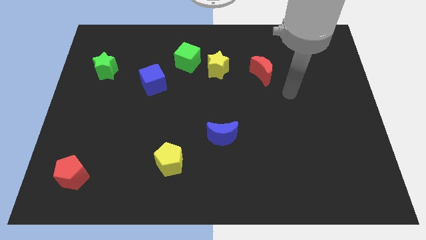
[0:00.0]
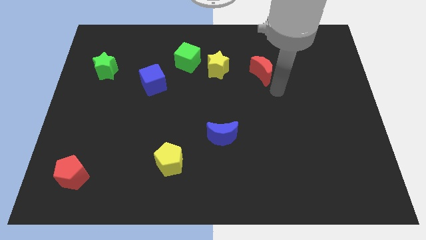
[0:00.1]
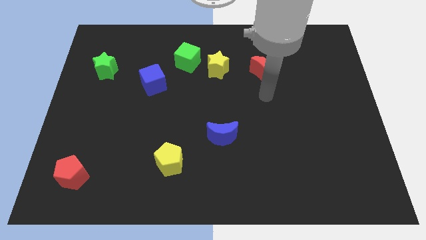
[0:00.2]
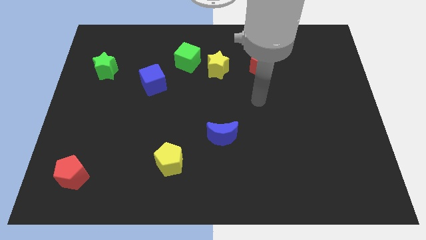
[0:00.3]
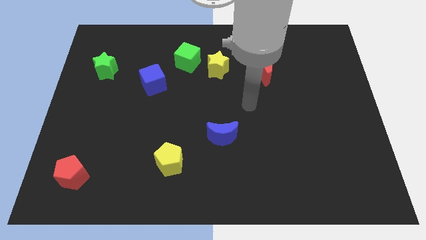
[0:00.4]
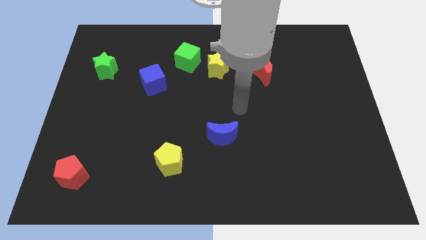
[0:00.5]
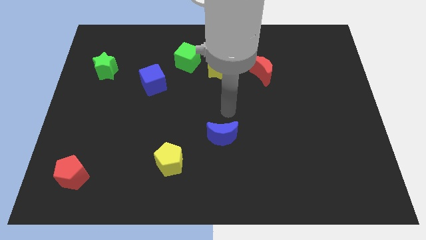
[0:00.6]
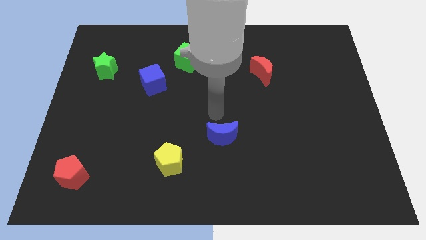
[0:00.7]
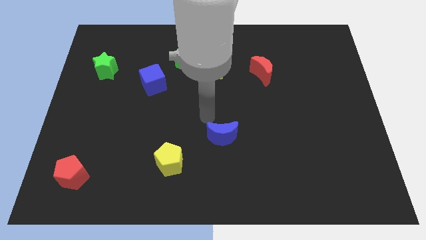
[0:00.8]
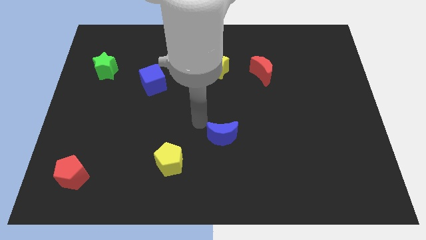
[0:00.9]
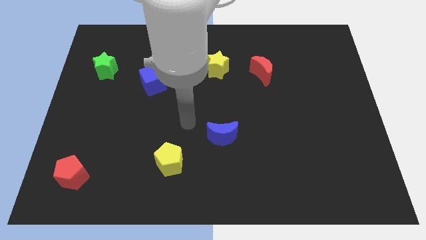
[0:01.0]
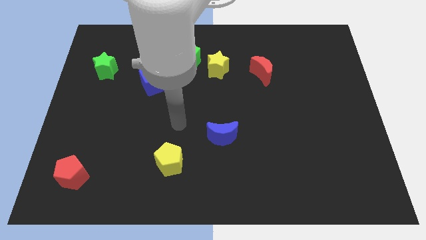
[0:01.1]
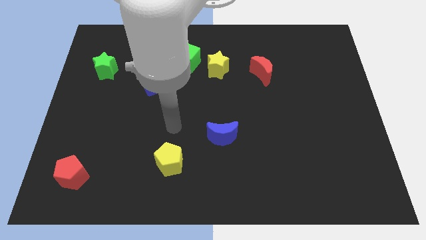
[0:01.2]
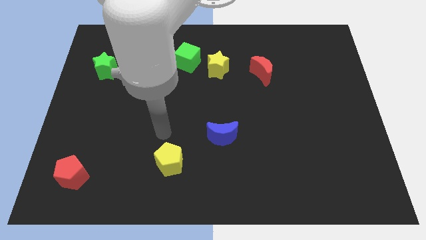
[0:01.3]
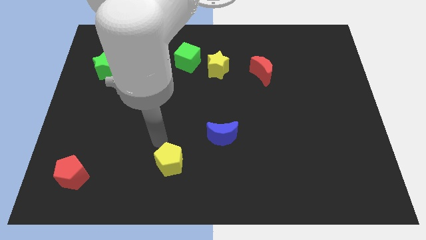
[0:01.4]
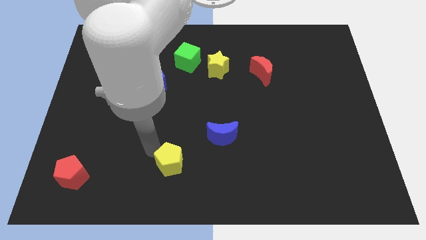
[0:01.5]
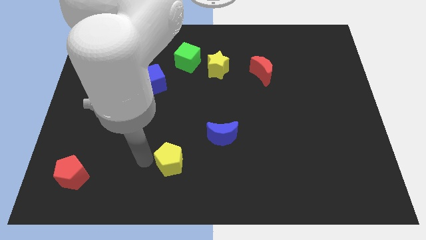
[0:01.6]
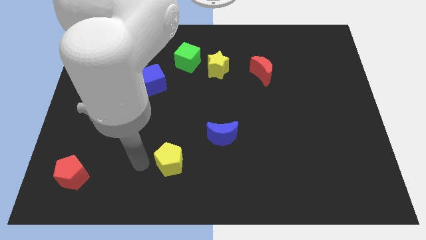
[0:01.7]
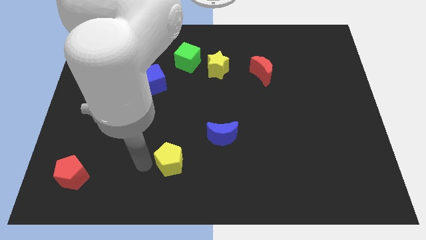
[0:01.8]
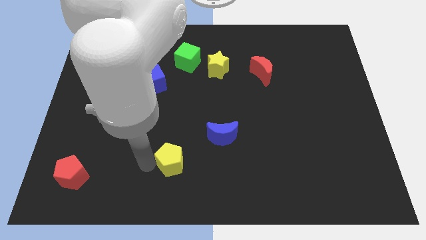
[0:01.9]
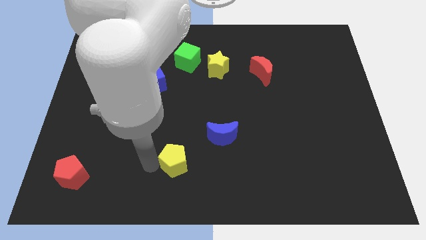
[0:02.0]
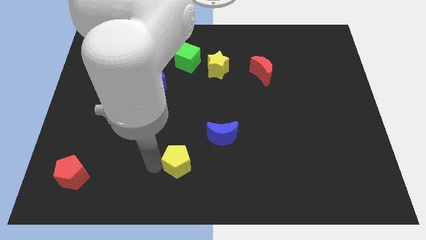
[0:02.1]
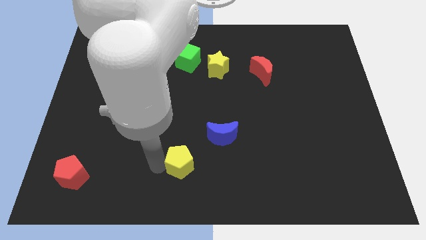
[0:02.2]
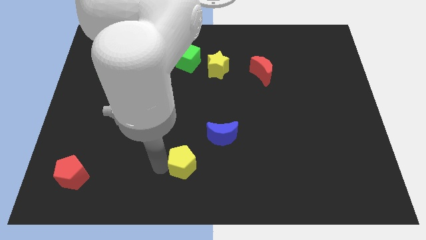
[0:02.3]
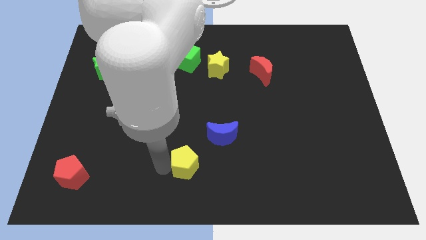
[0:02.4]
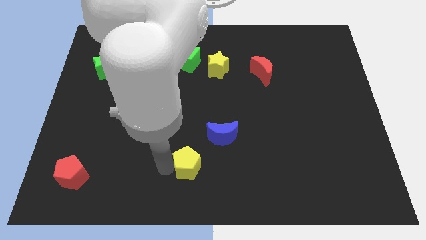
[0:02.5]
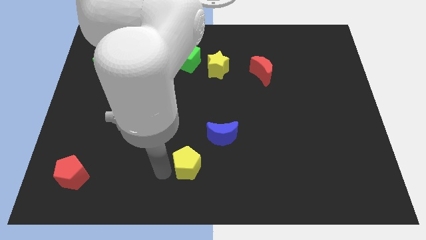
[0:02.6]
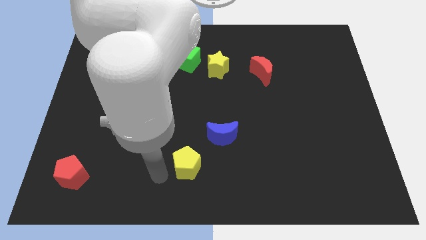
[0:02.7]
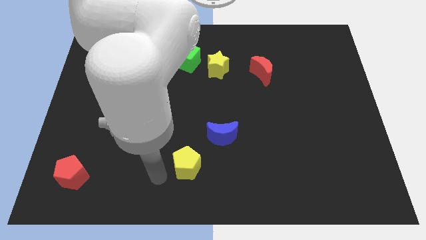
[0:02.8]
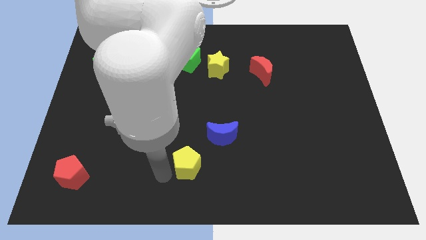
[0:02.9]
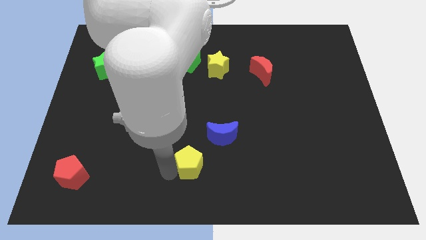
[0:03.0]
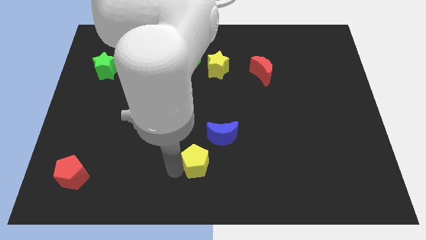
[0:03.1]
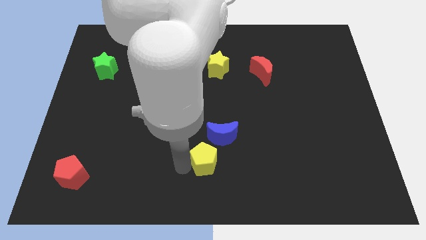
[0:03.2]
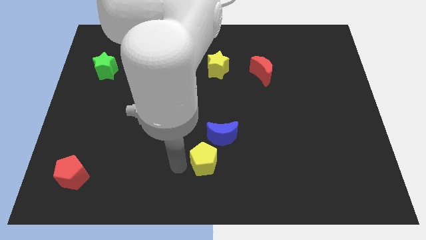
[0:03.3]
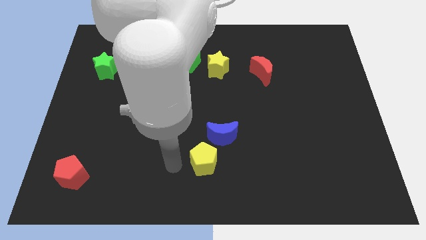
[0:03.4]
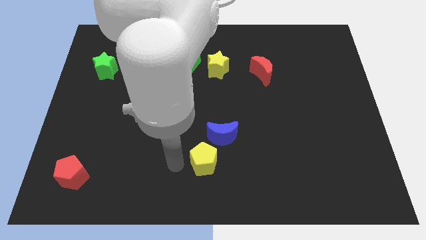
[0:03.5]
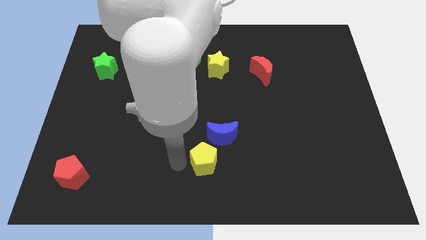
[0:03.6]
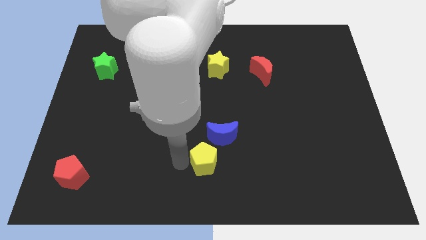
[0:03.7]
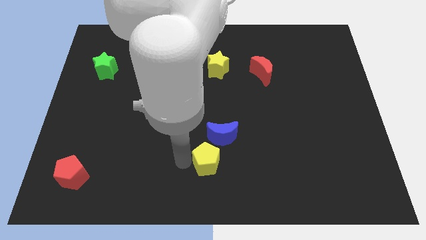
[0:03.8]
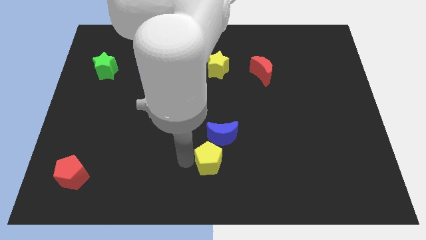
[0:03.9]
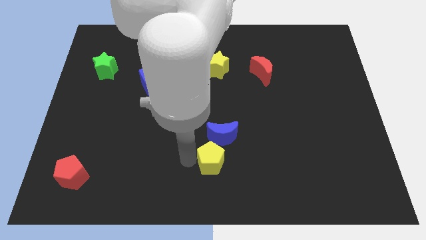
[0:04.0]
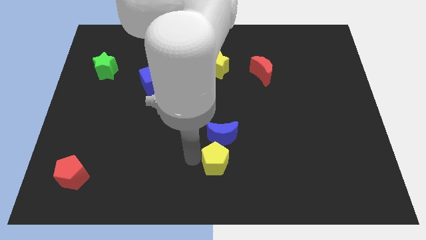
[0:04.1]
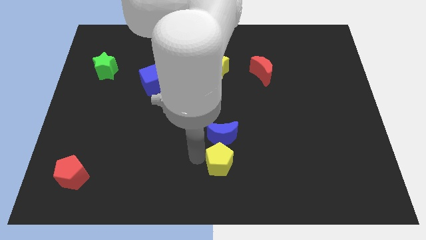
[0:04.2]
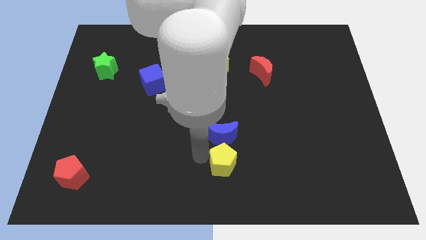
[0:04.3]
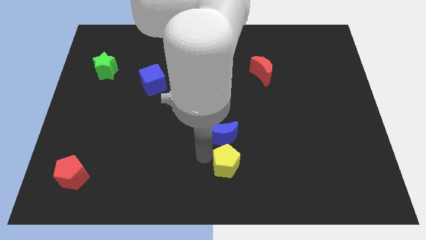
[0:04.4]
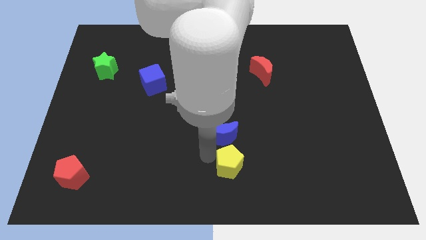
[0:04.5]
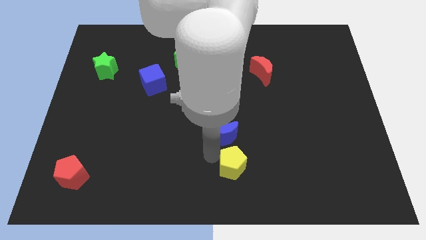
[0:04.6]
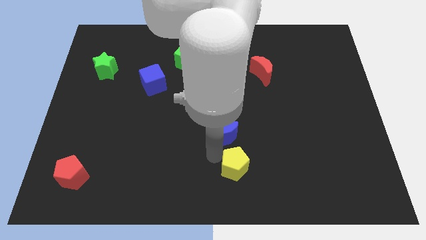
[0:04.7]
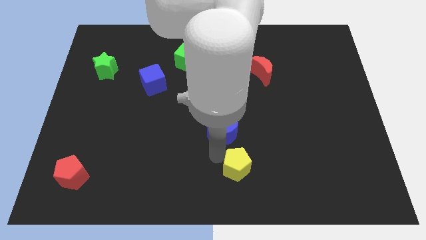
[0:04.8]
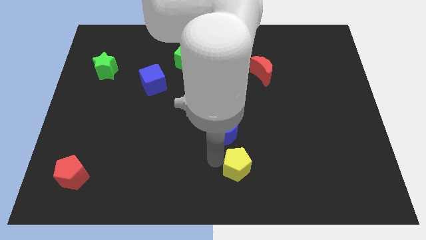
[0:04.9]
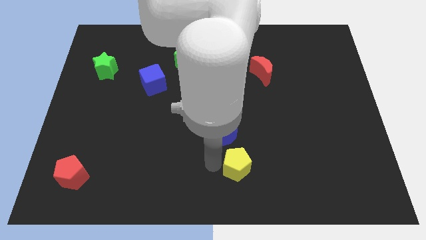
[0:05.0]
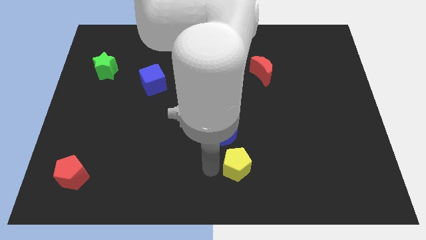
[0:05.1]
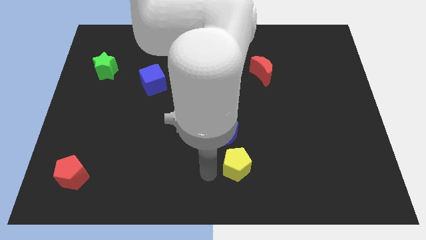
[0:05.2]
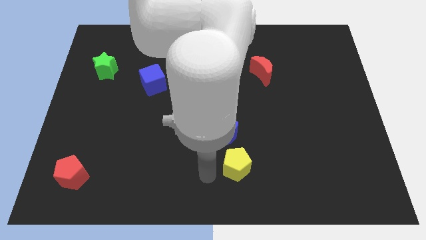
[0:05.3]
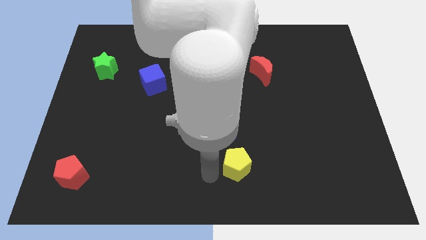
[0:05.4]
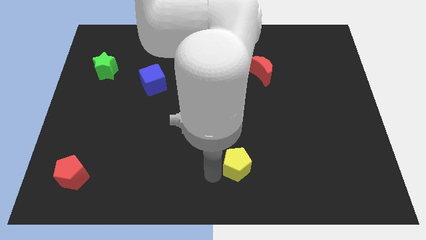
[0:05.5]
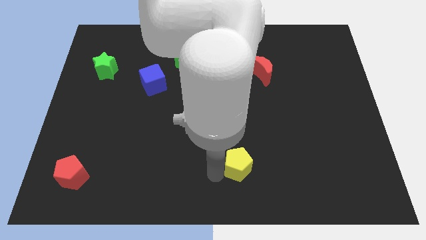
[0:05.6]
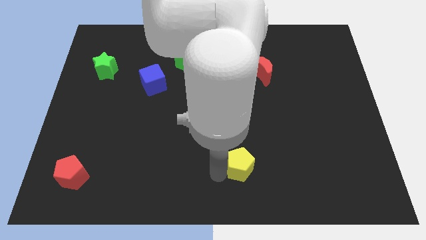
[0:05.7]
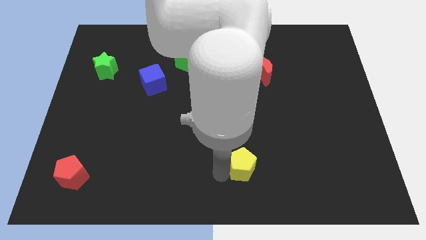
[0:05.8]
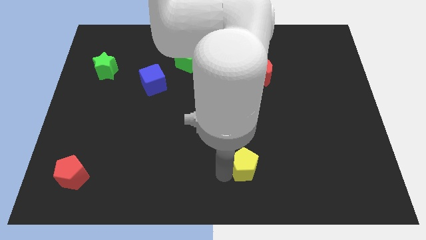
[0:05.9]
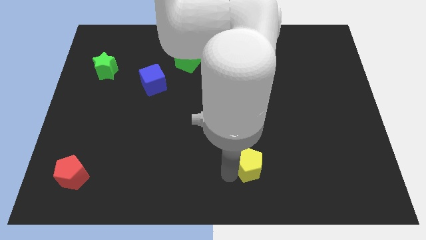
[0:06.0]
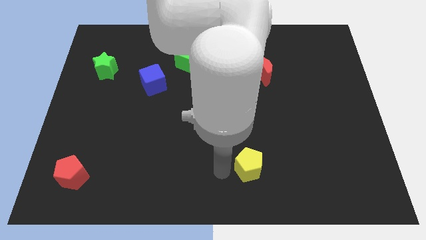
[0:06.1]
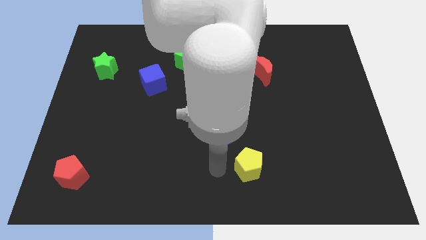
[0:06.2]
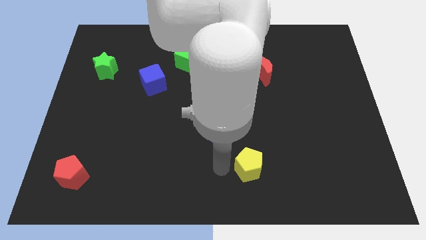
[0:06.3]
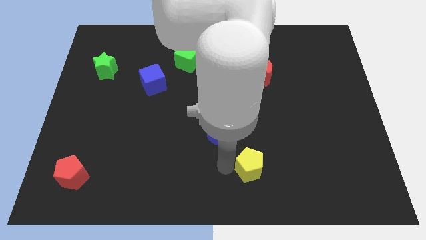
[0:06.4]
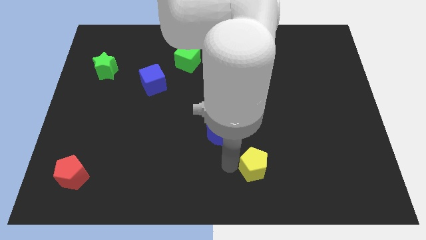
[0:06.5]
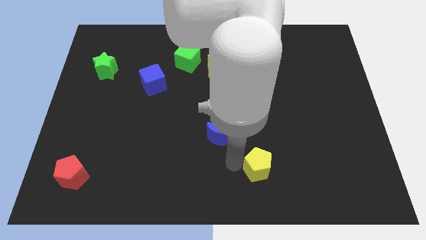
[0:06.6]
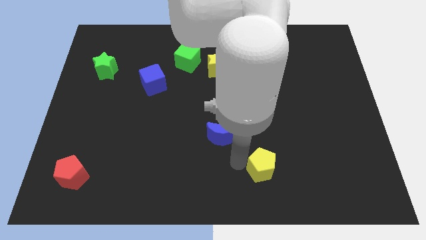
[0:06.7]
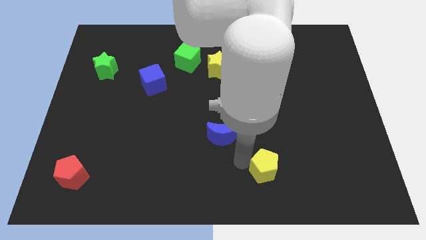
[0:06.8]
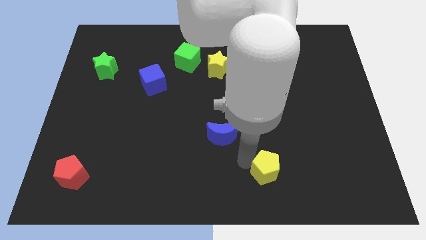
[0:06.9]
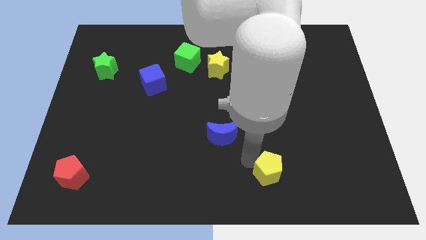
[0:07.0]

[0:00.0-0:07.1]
move the yellow pentagon to the right

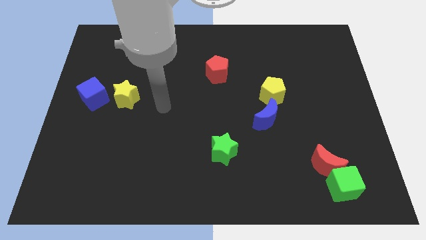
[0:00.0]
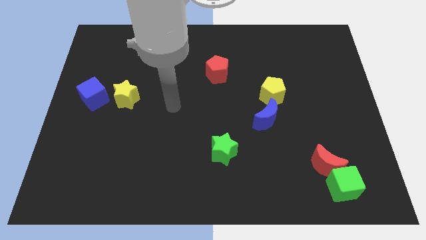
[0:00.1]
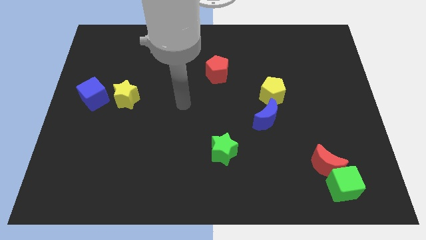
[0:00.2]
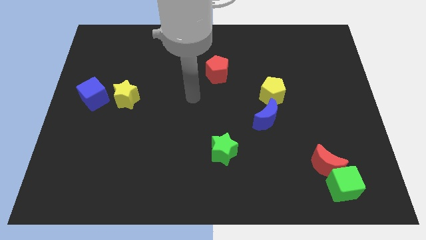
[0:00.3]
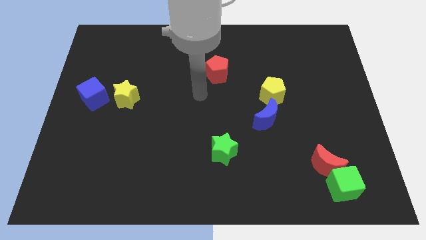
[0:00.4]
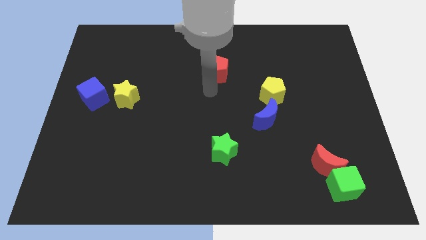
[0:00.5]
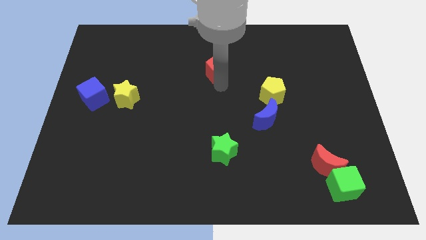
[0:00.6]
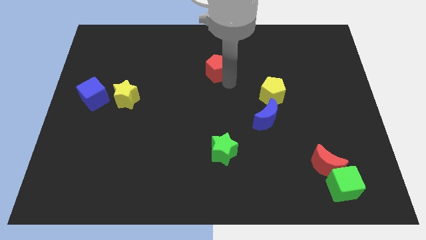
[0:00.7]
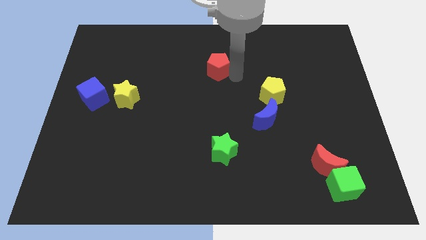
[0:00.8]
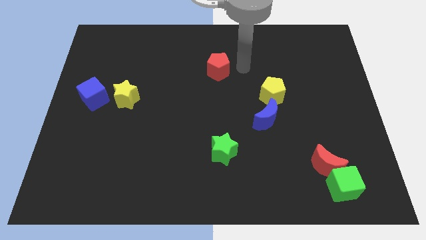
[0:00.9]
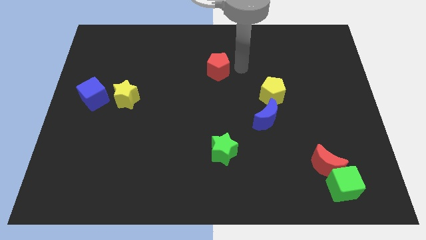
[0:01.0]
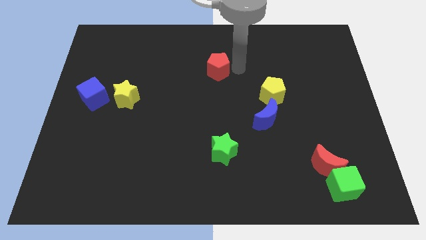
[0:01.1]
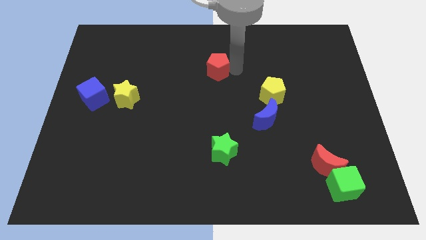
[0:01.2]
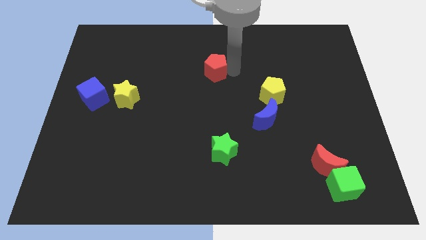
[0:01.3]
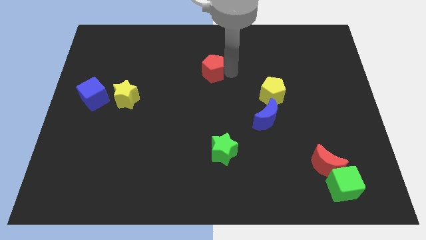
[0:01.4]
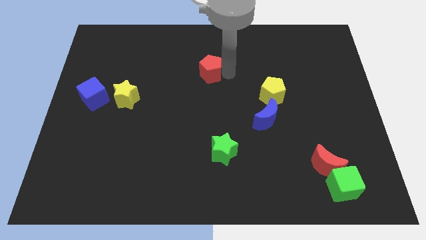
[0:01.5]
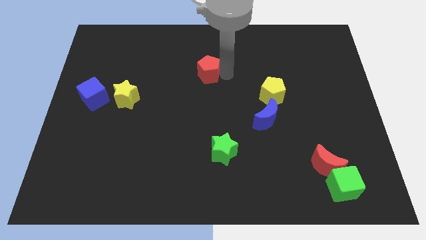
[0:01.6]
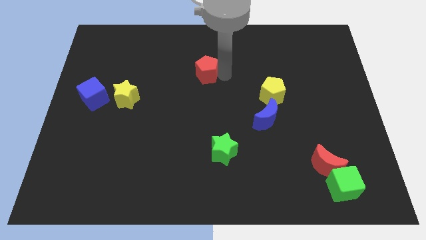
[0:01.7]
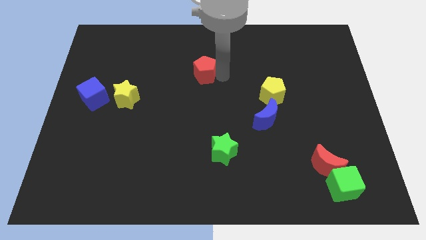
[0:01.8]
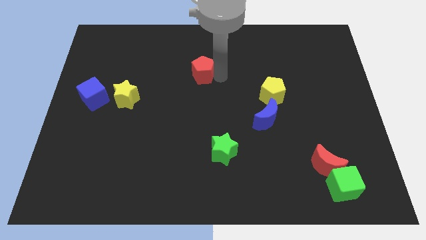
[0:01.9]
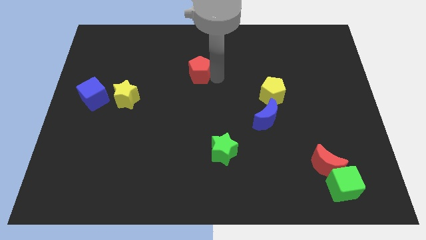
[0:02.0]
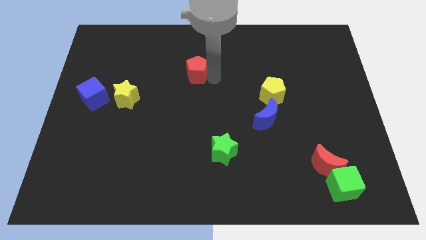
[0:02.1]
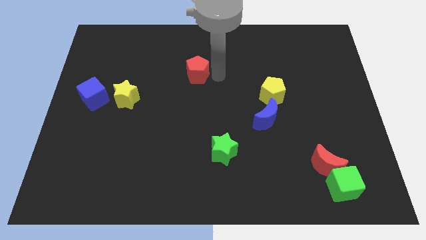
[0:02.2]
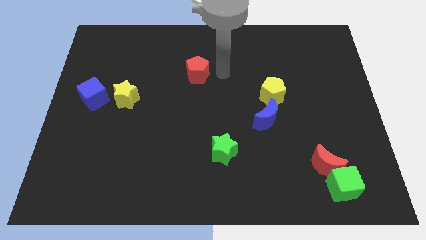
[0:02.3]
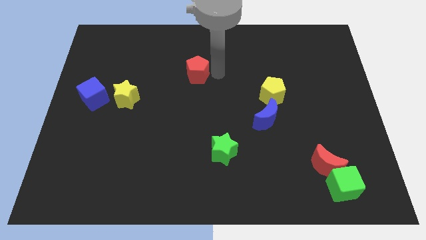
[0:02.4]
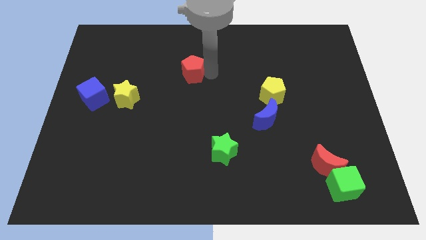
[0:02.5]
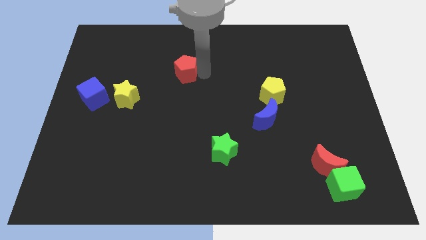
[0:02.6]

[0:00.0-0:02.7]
slightly push the red pentagon to the left
